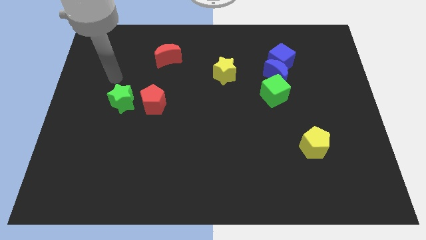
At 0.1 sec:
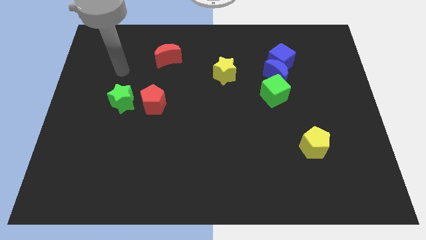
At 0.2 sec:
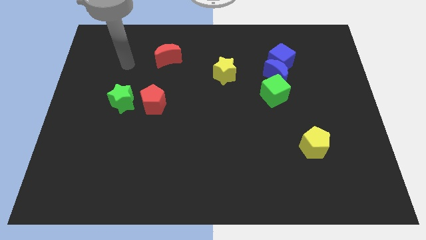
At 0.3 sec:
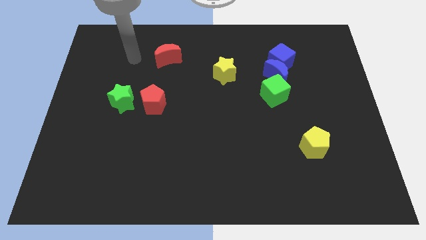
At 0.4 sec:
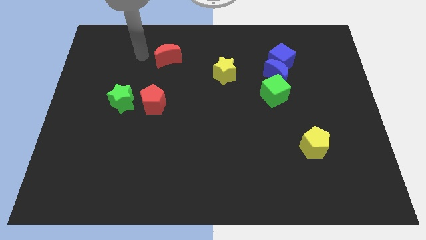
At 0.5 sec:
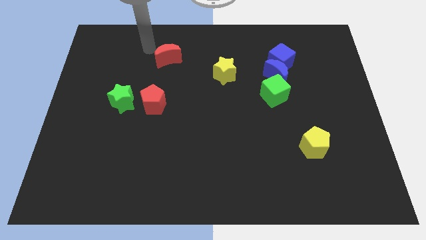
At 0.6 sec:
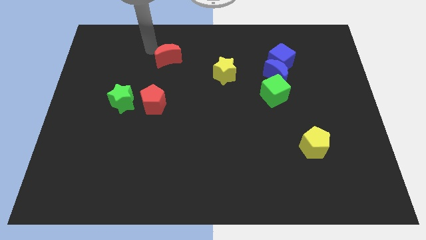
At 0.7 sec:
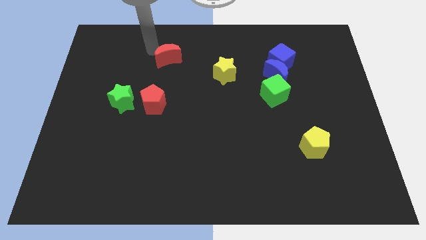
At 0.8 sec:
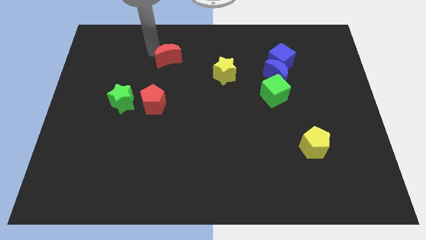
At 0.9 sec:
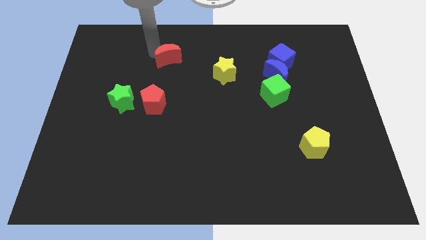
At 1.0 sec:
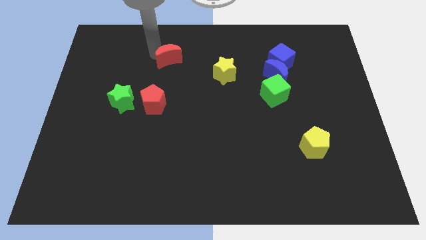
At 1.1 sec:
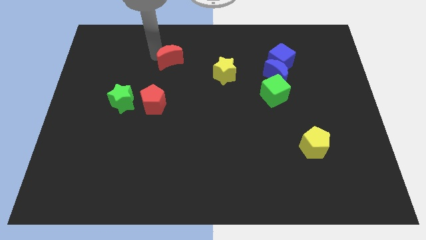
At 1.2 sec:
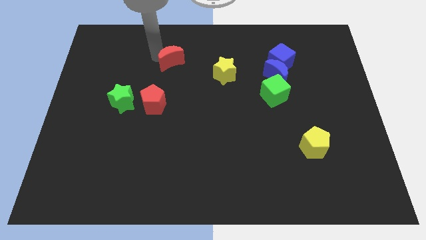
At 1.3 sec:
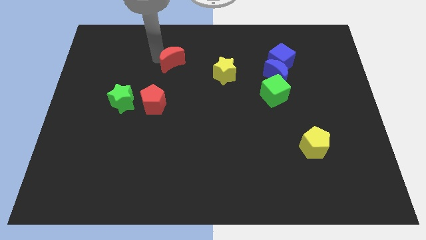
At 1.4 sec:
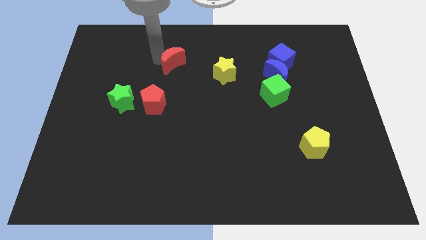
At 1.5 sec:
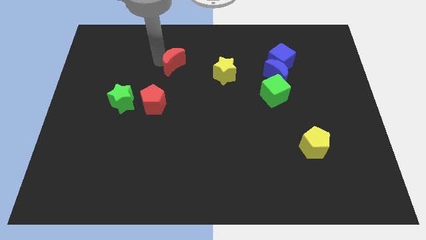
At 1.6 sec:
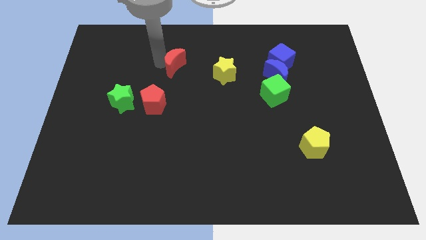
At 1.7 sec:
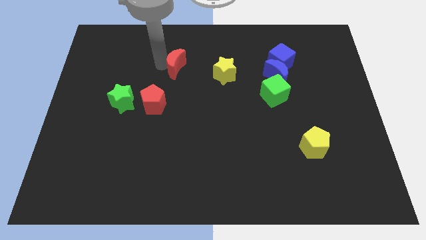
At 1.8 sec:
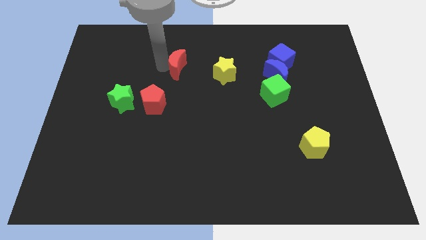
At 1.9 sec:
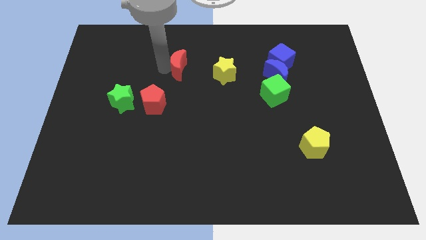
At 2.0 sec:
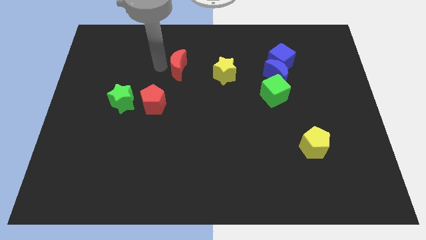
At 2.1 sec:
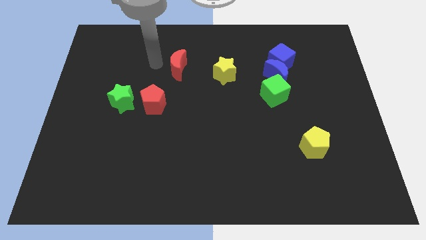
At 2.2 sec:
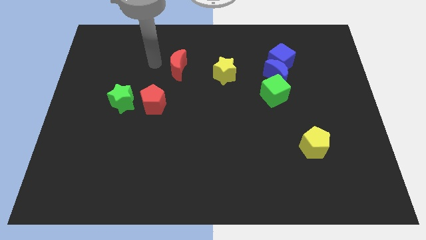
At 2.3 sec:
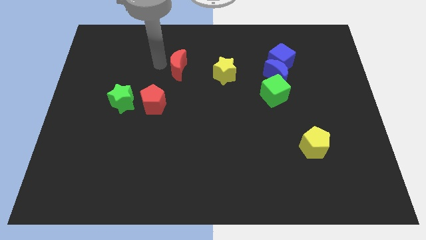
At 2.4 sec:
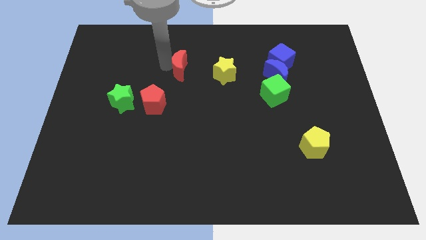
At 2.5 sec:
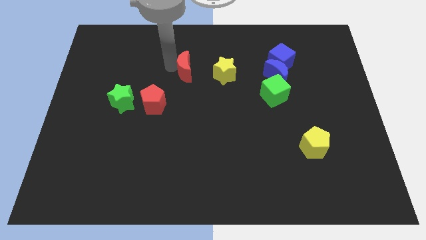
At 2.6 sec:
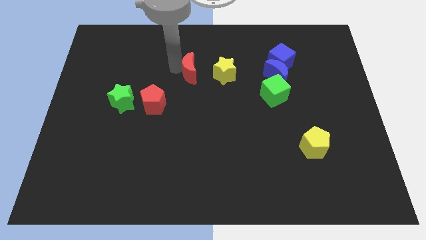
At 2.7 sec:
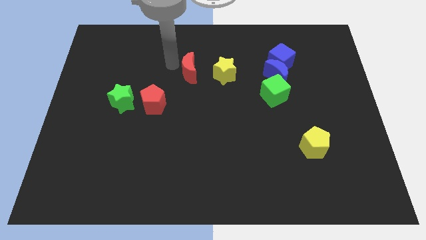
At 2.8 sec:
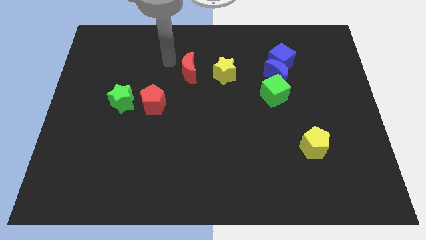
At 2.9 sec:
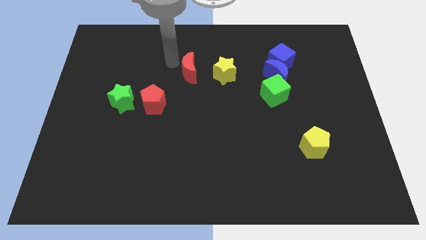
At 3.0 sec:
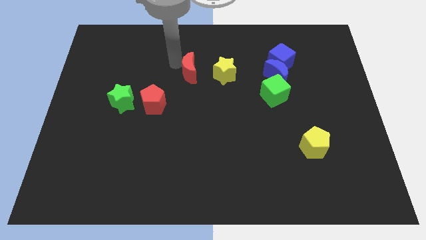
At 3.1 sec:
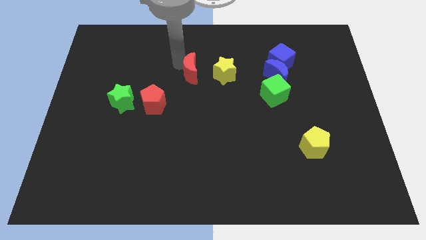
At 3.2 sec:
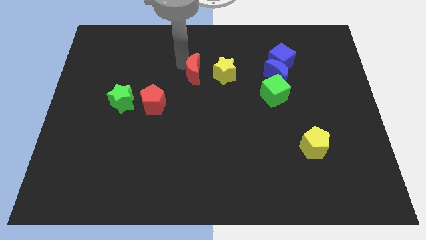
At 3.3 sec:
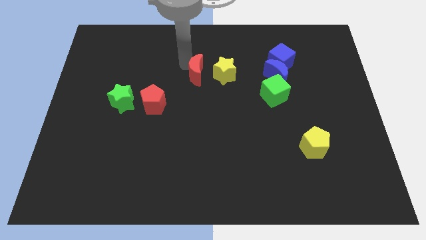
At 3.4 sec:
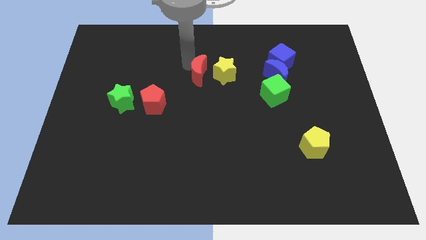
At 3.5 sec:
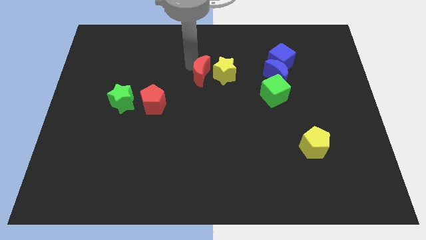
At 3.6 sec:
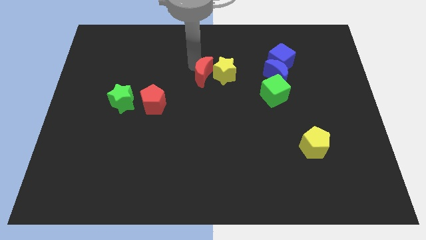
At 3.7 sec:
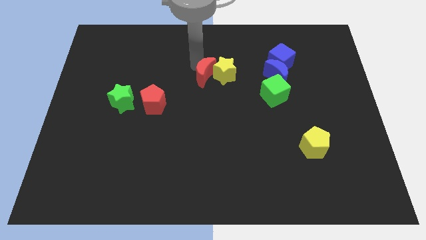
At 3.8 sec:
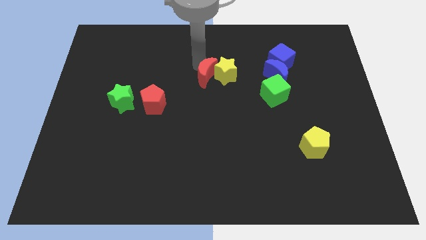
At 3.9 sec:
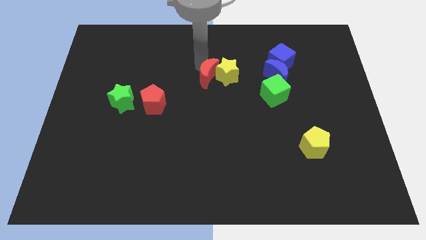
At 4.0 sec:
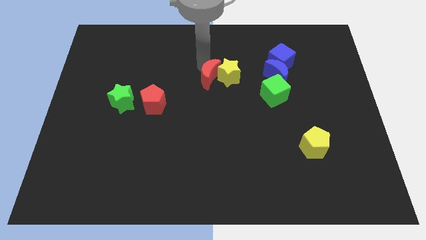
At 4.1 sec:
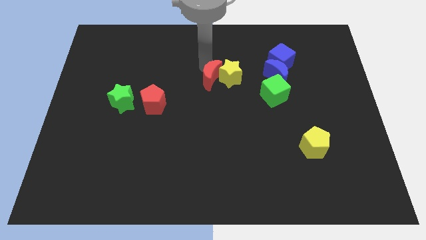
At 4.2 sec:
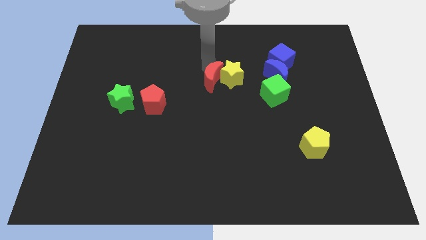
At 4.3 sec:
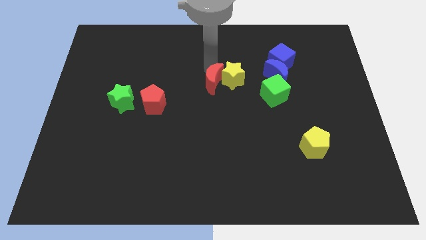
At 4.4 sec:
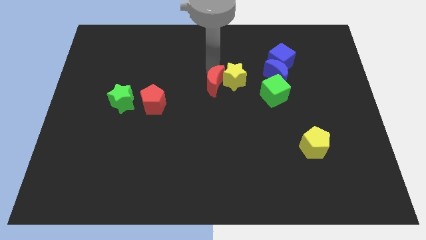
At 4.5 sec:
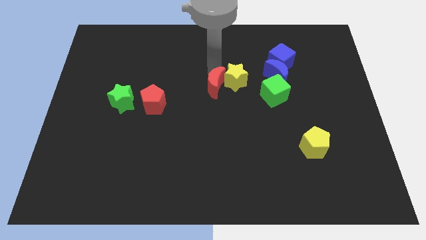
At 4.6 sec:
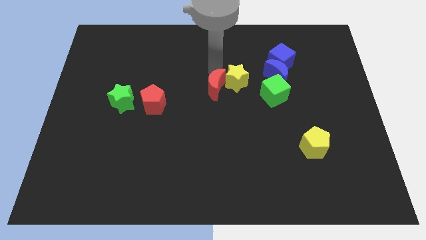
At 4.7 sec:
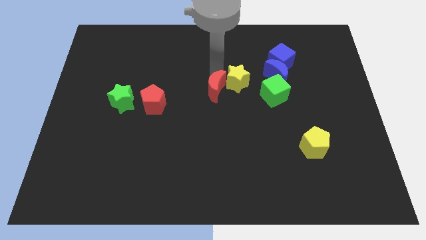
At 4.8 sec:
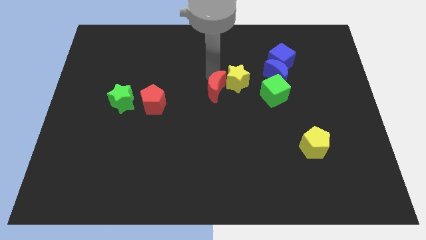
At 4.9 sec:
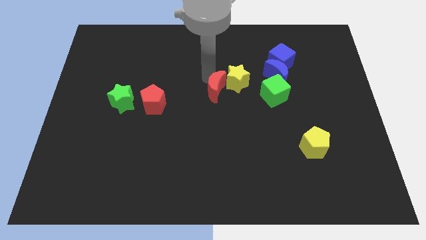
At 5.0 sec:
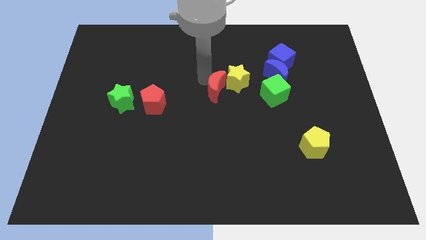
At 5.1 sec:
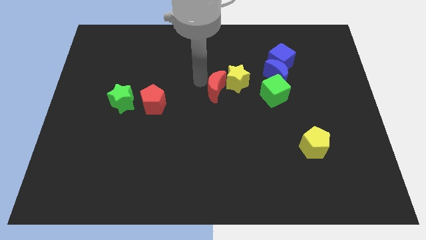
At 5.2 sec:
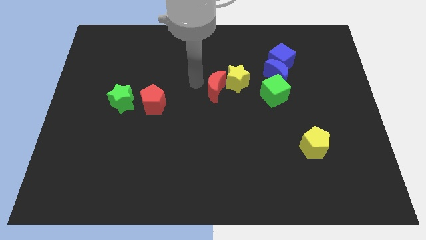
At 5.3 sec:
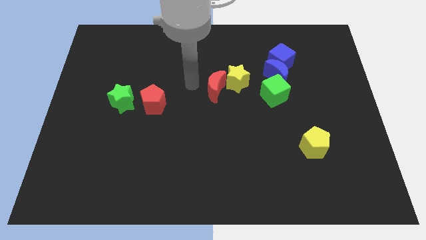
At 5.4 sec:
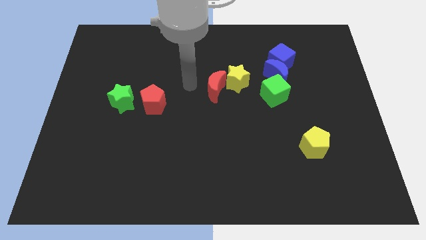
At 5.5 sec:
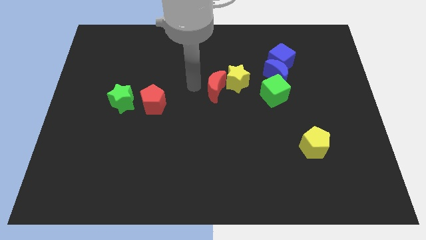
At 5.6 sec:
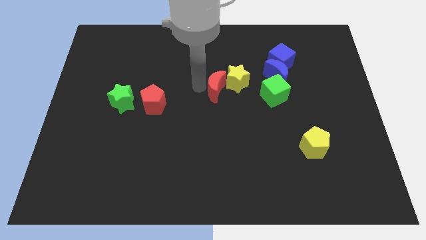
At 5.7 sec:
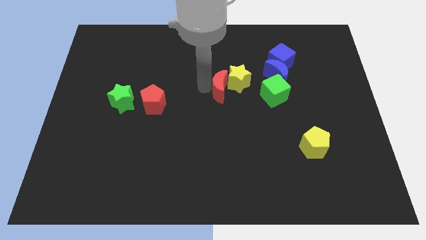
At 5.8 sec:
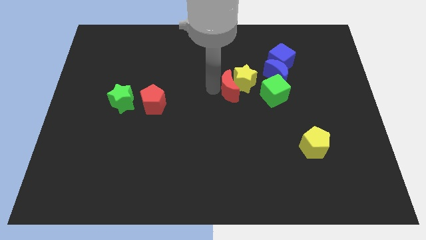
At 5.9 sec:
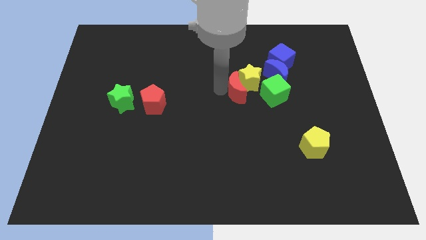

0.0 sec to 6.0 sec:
push the red moon diagonally down and to the left of the blue moon

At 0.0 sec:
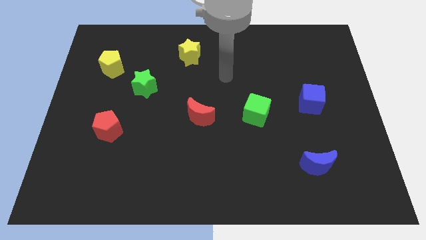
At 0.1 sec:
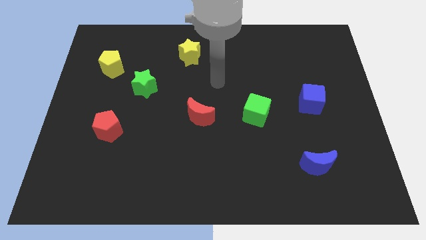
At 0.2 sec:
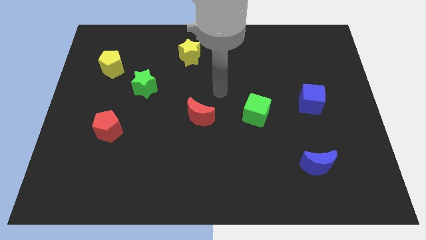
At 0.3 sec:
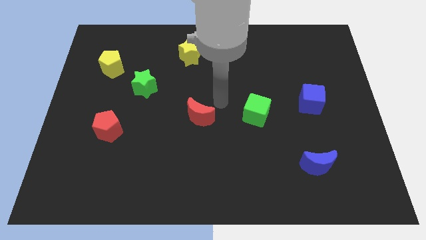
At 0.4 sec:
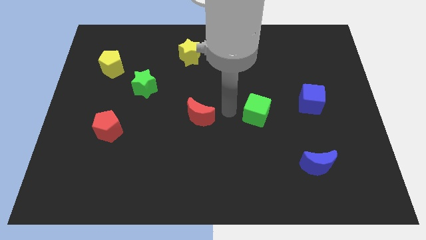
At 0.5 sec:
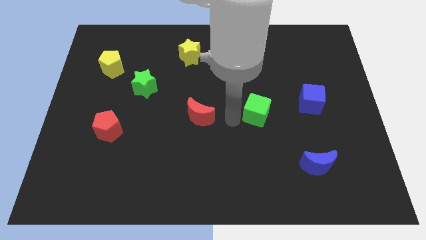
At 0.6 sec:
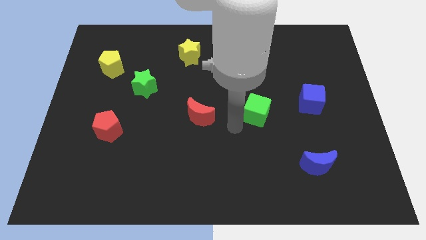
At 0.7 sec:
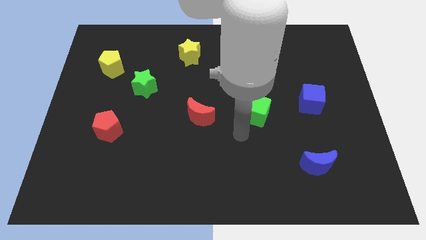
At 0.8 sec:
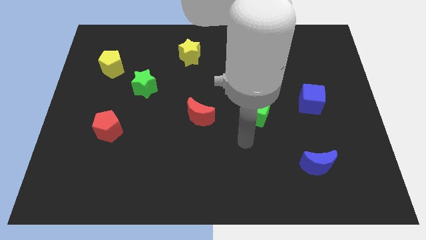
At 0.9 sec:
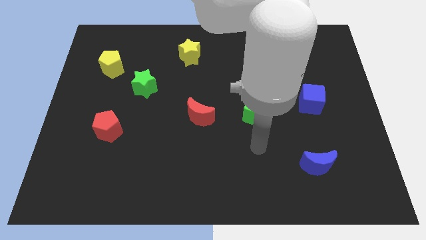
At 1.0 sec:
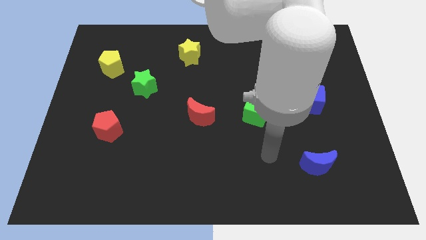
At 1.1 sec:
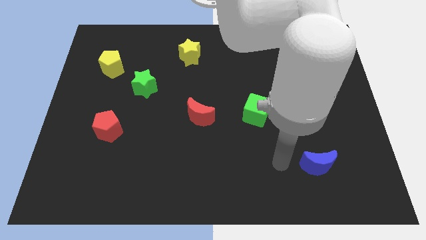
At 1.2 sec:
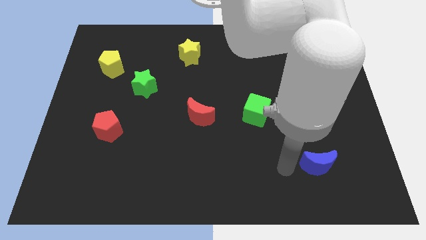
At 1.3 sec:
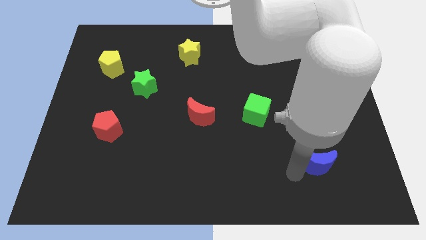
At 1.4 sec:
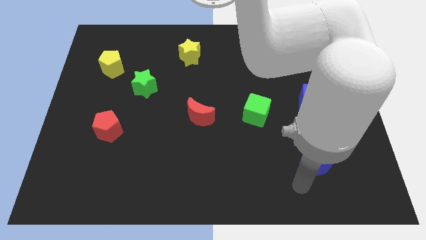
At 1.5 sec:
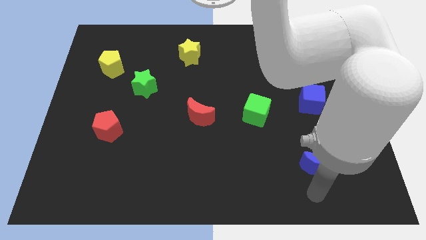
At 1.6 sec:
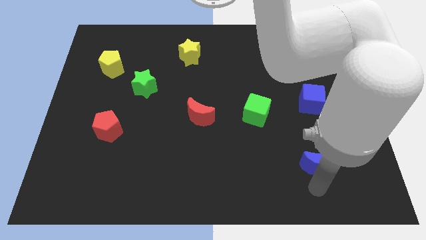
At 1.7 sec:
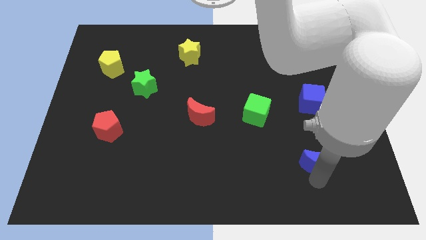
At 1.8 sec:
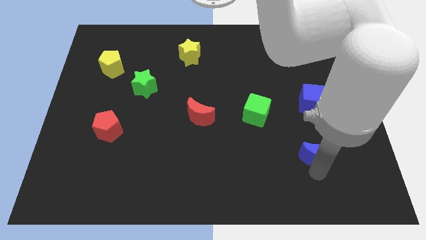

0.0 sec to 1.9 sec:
put the blue moon to the bottom side of the blue cube
